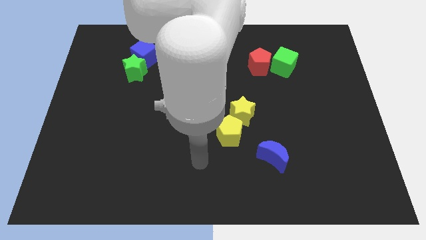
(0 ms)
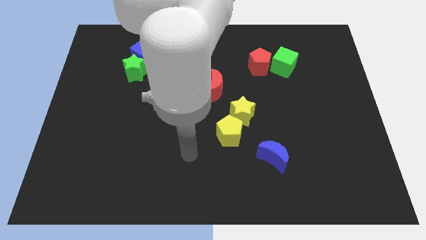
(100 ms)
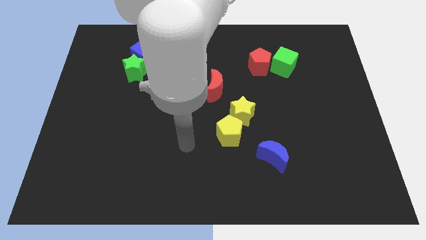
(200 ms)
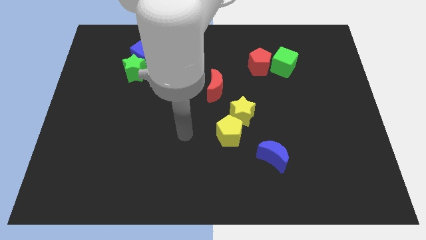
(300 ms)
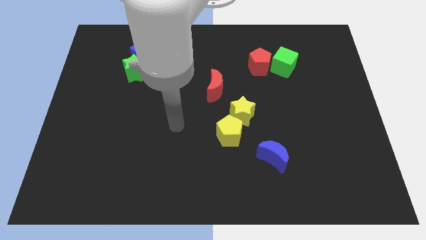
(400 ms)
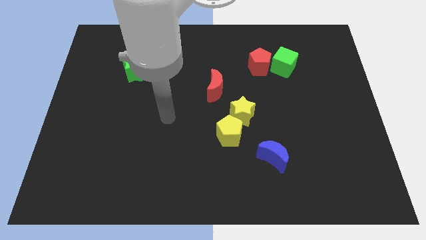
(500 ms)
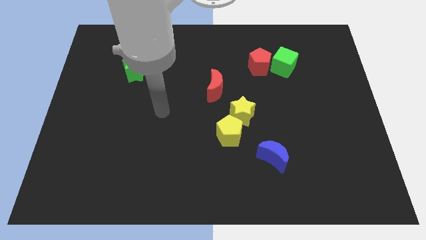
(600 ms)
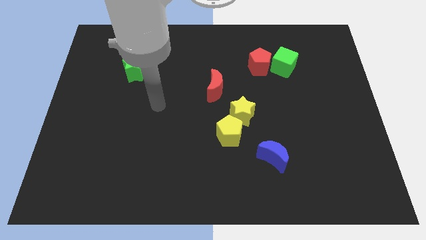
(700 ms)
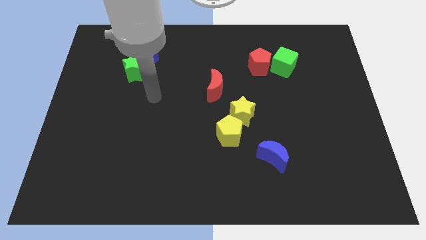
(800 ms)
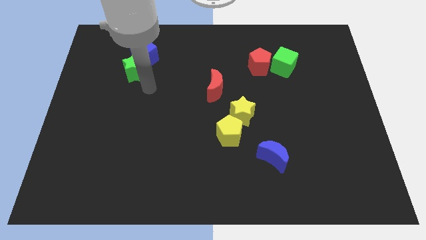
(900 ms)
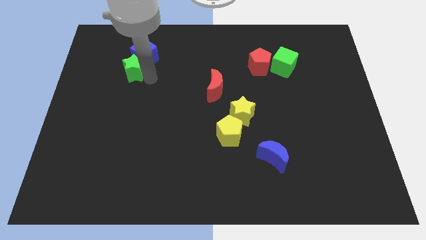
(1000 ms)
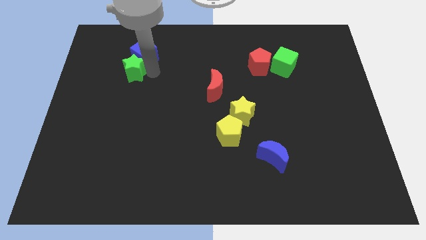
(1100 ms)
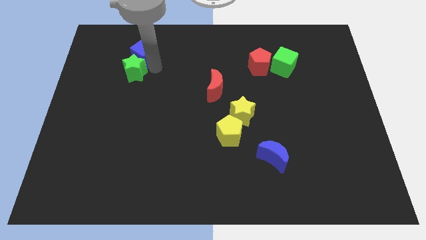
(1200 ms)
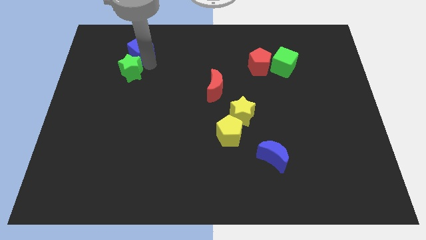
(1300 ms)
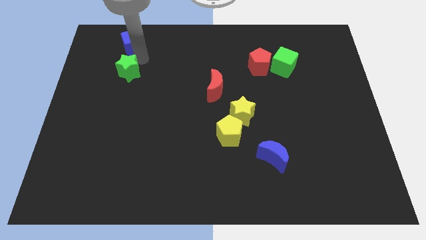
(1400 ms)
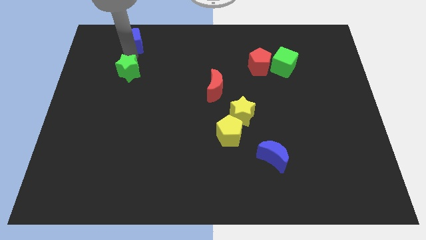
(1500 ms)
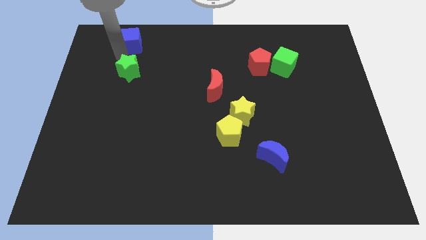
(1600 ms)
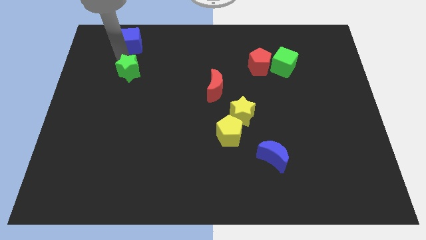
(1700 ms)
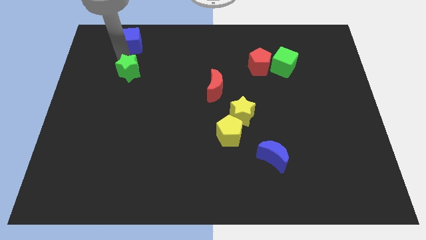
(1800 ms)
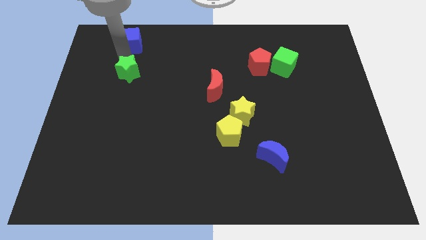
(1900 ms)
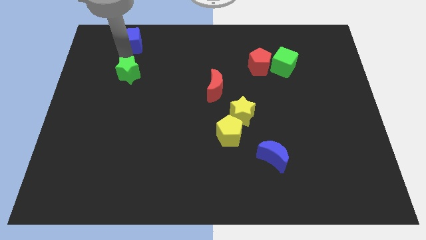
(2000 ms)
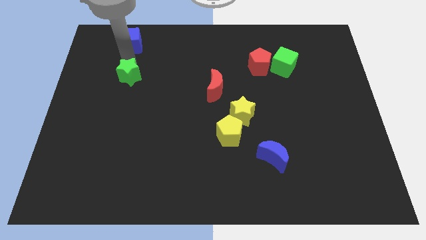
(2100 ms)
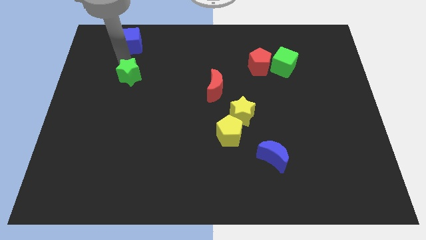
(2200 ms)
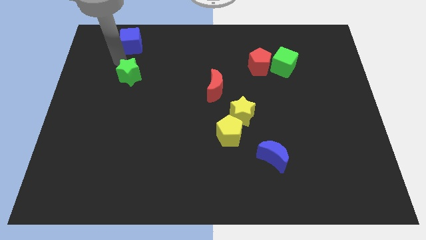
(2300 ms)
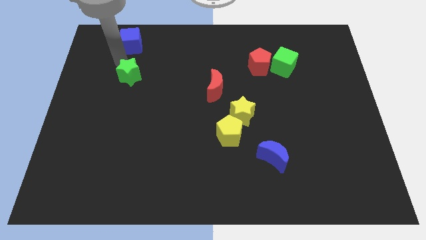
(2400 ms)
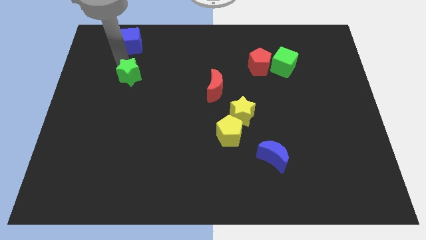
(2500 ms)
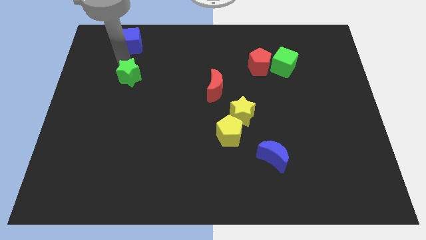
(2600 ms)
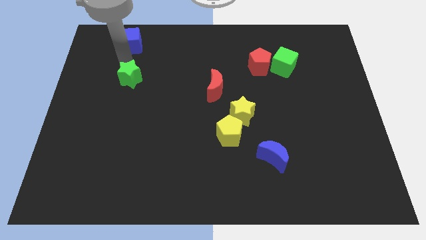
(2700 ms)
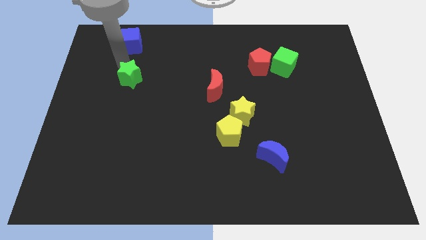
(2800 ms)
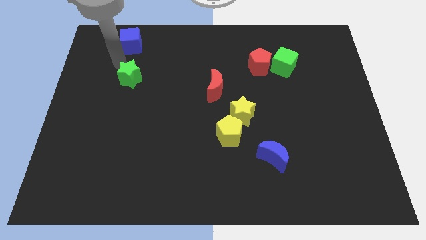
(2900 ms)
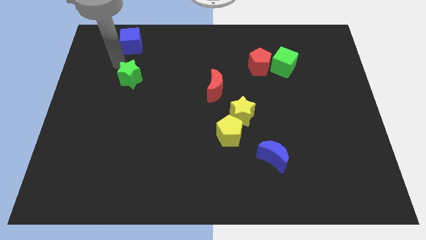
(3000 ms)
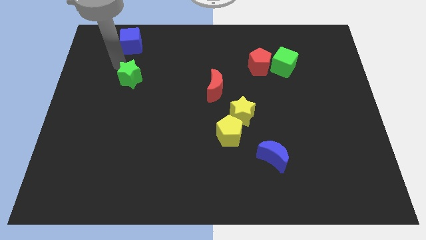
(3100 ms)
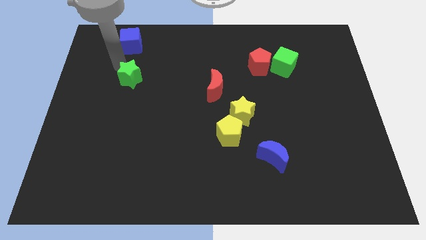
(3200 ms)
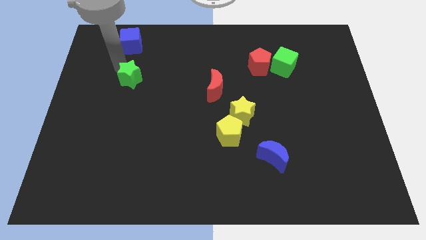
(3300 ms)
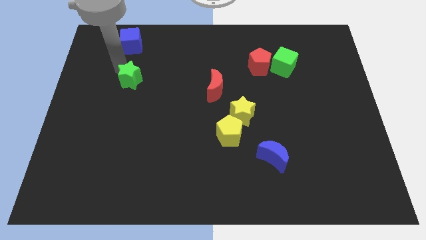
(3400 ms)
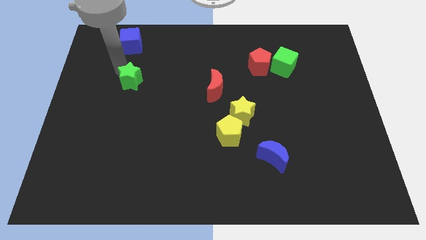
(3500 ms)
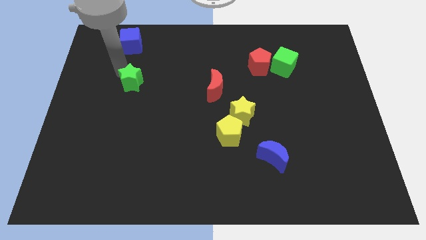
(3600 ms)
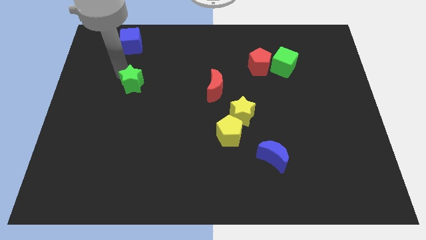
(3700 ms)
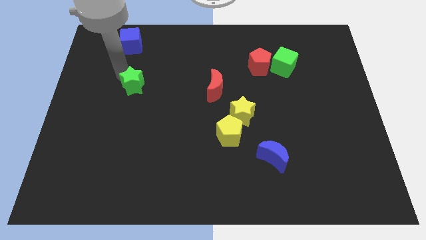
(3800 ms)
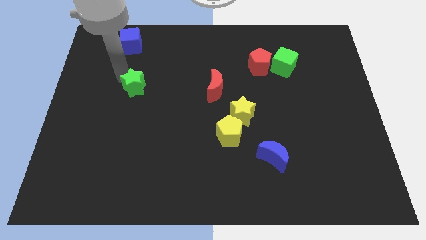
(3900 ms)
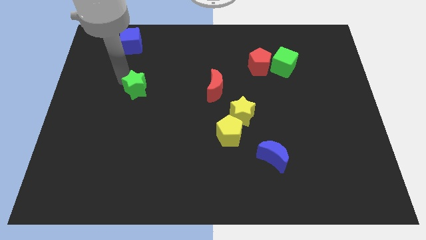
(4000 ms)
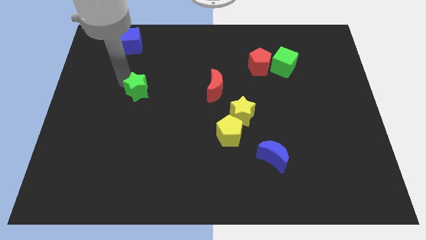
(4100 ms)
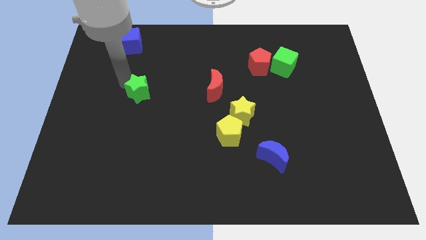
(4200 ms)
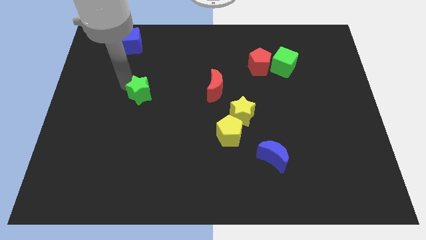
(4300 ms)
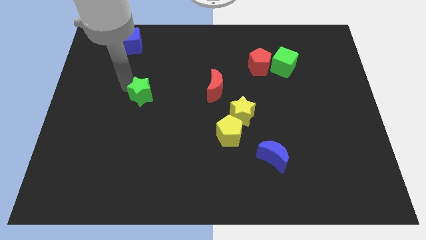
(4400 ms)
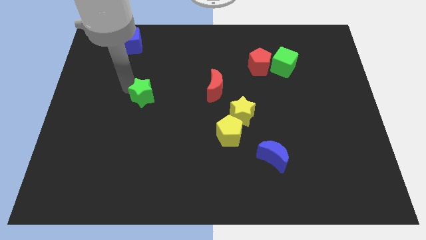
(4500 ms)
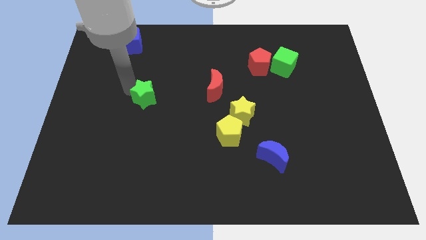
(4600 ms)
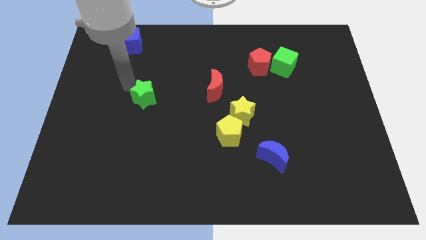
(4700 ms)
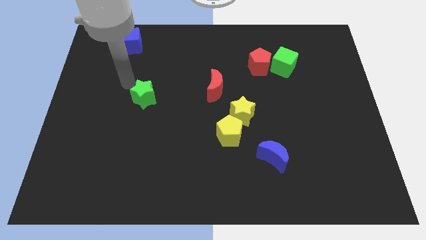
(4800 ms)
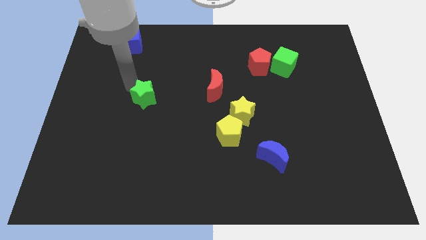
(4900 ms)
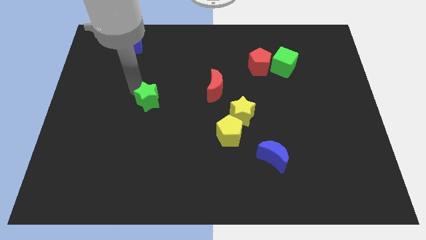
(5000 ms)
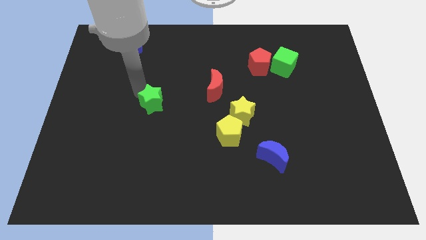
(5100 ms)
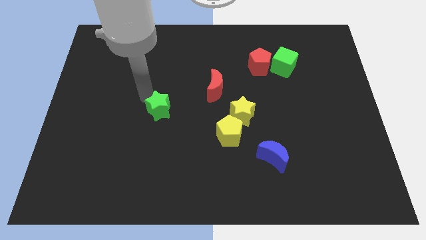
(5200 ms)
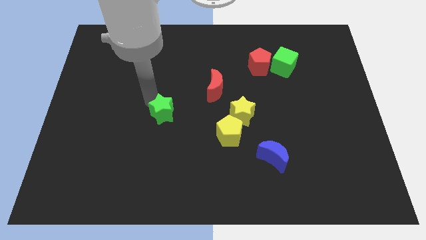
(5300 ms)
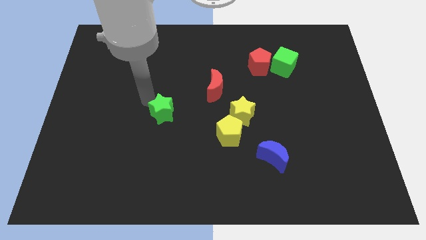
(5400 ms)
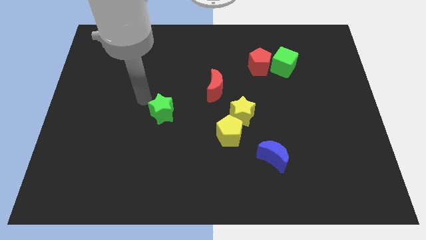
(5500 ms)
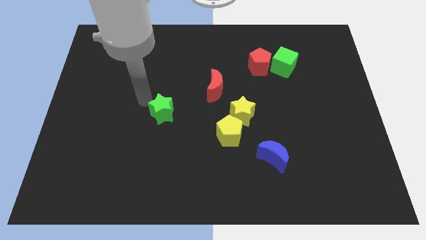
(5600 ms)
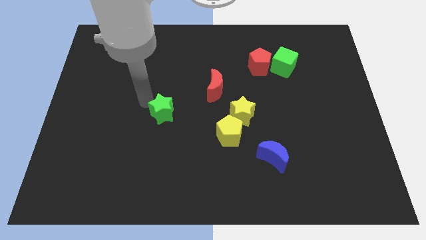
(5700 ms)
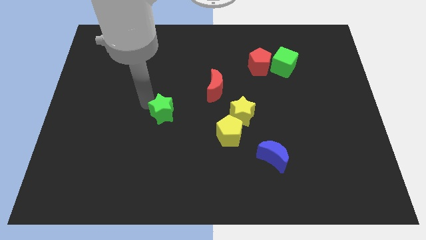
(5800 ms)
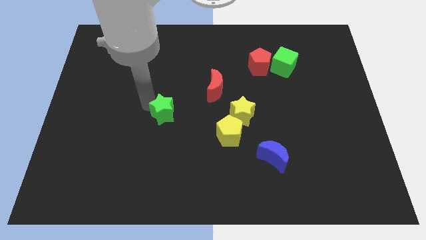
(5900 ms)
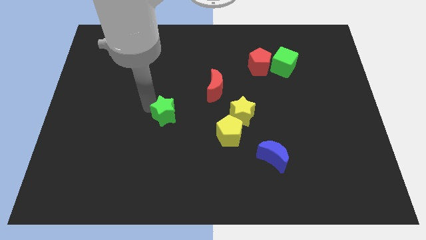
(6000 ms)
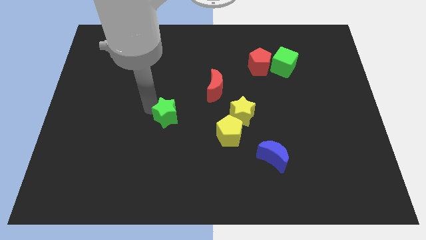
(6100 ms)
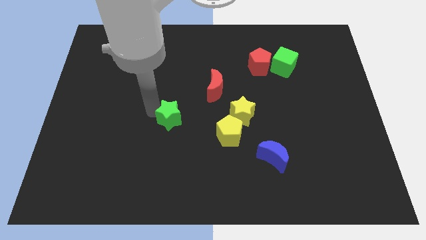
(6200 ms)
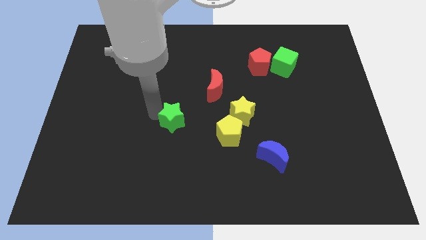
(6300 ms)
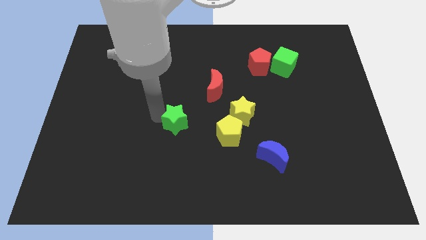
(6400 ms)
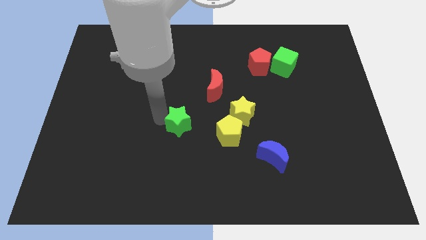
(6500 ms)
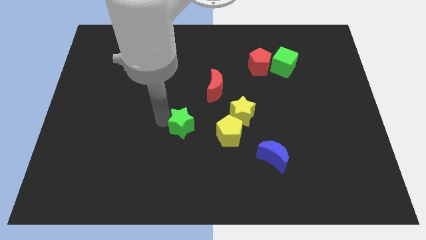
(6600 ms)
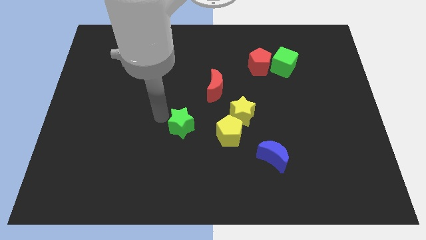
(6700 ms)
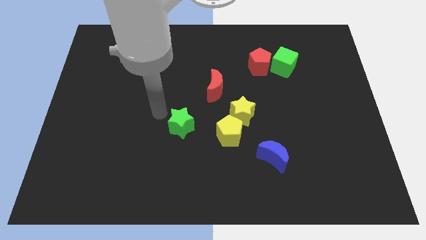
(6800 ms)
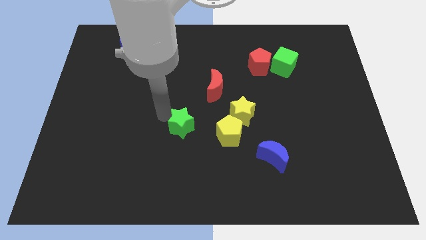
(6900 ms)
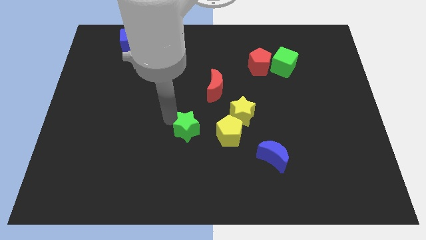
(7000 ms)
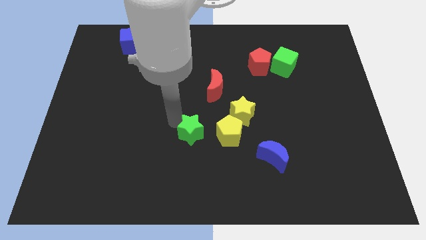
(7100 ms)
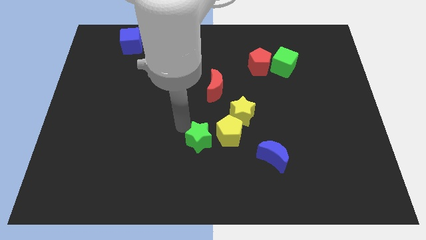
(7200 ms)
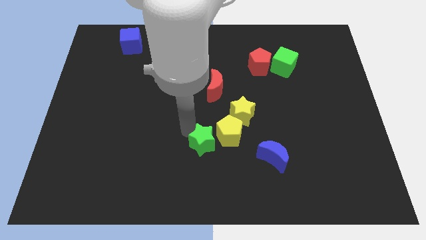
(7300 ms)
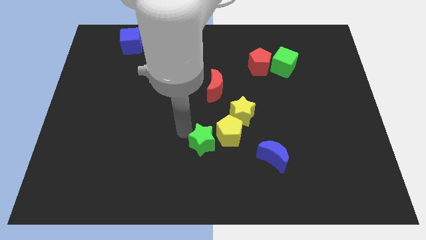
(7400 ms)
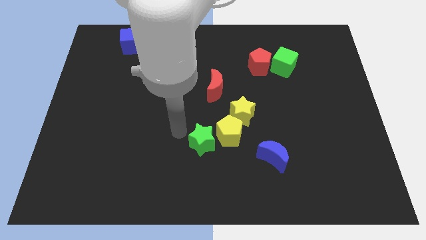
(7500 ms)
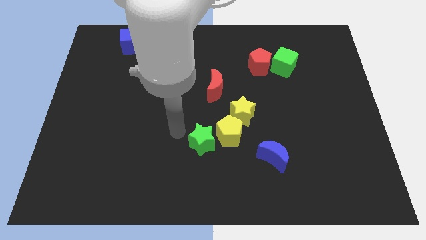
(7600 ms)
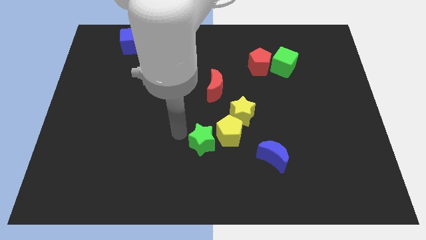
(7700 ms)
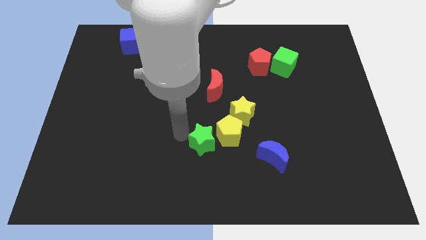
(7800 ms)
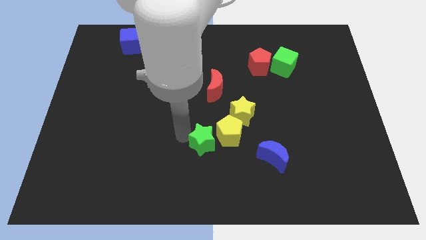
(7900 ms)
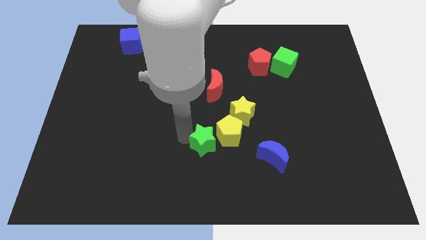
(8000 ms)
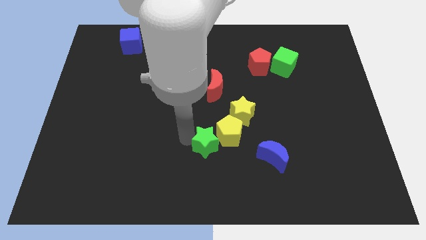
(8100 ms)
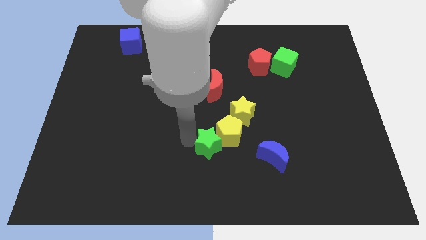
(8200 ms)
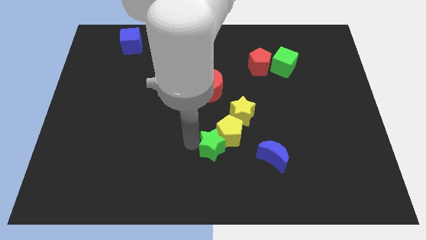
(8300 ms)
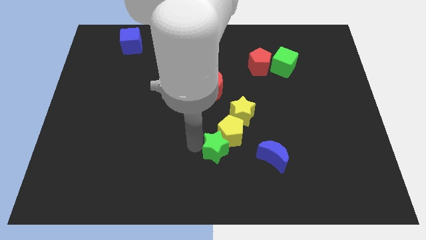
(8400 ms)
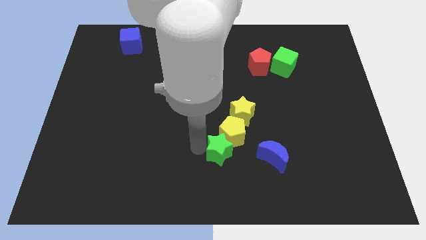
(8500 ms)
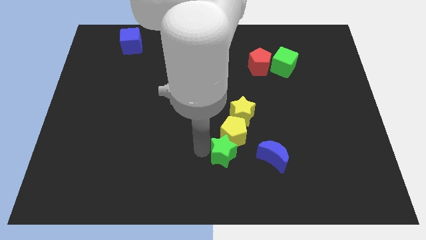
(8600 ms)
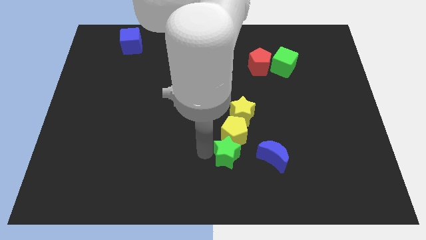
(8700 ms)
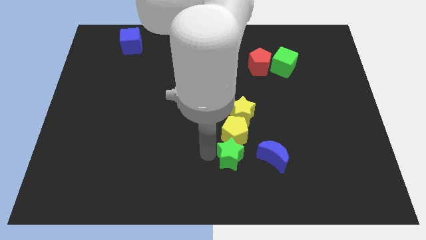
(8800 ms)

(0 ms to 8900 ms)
move the green star to the bottom right of the yellow pentagon
